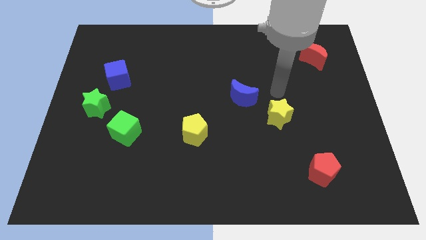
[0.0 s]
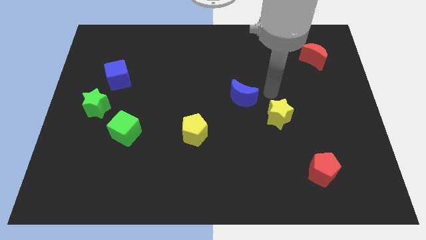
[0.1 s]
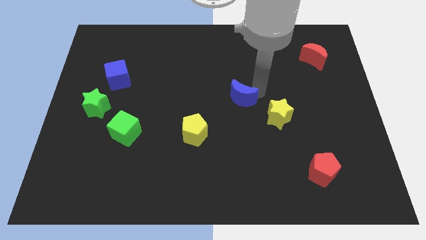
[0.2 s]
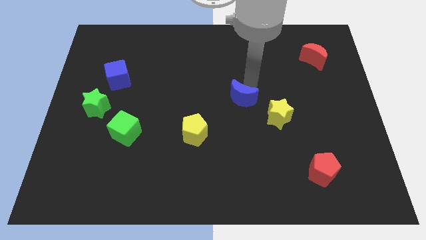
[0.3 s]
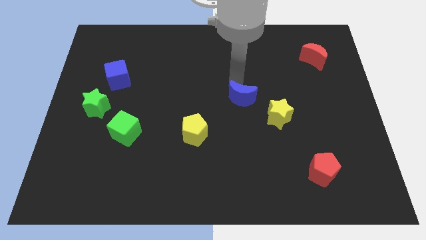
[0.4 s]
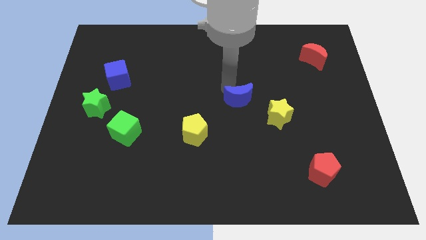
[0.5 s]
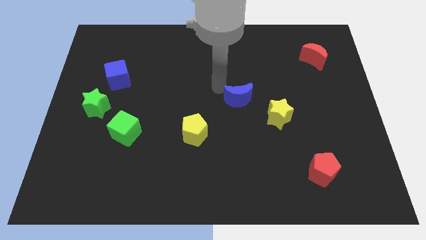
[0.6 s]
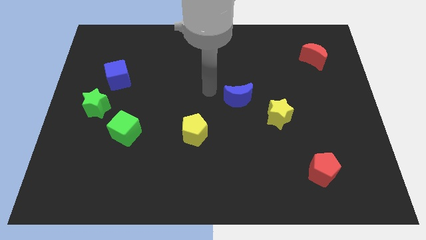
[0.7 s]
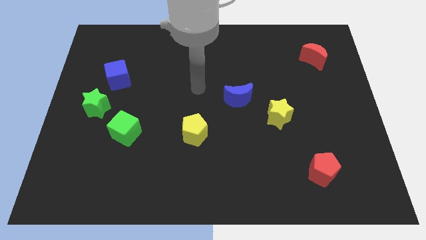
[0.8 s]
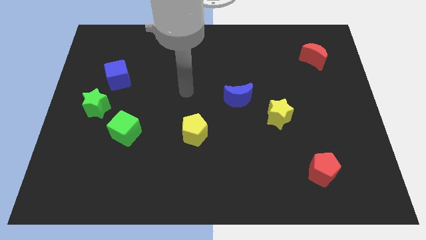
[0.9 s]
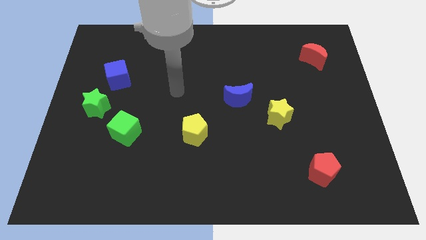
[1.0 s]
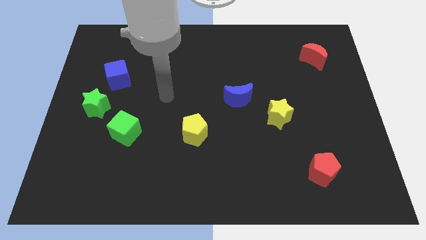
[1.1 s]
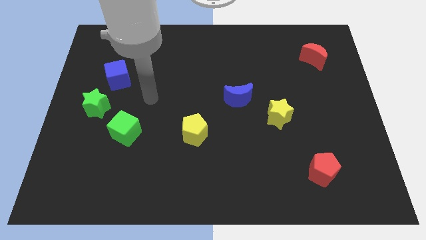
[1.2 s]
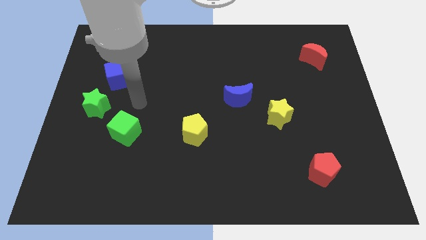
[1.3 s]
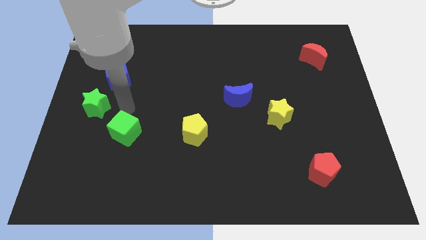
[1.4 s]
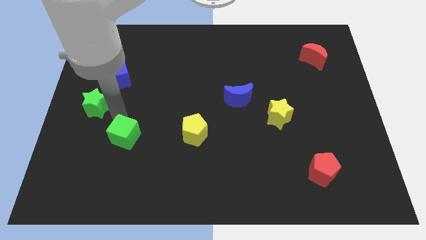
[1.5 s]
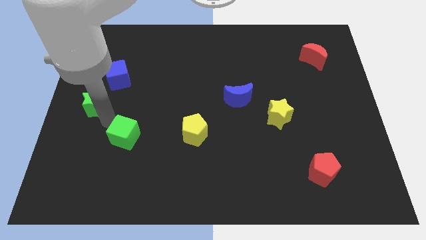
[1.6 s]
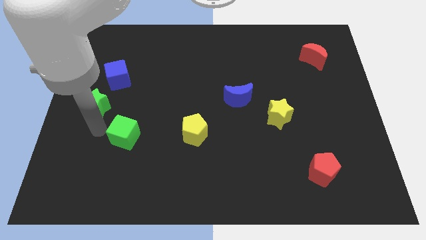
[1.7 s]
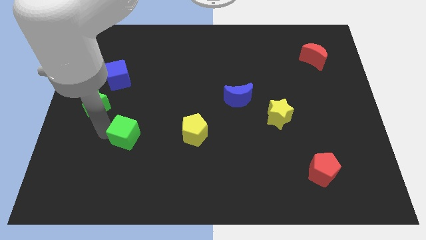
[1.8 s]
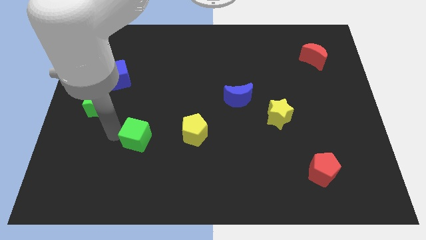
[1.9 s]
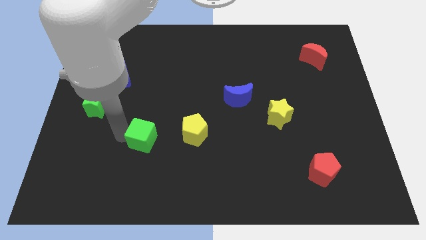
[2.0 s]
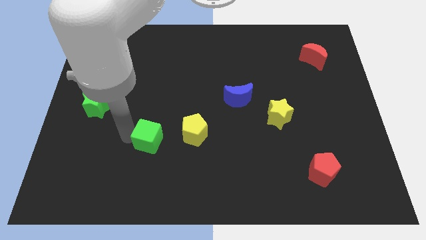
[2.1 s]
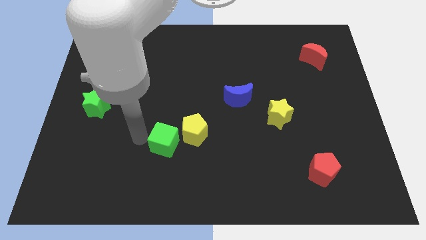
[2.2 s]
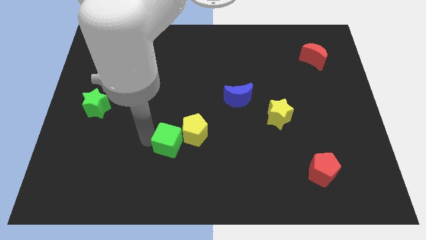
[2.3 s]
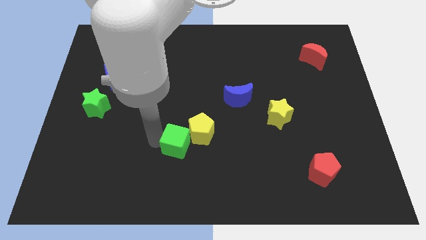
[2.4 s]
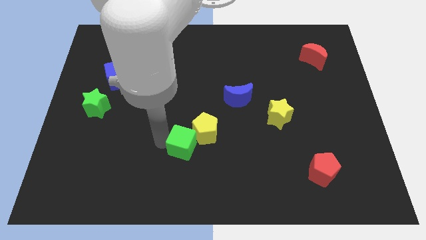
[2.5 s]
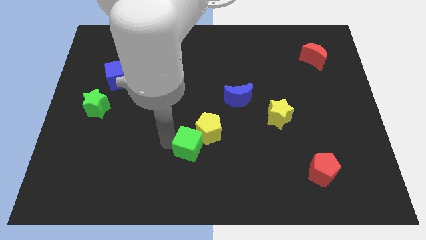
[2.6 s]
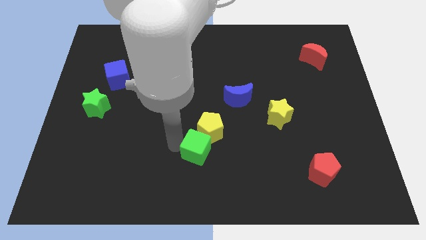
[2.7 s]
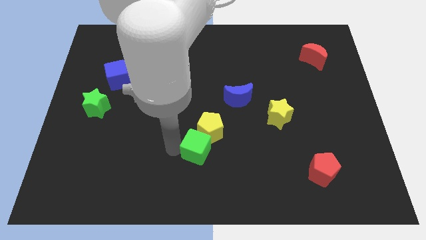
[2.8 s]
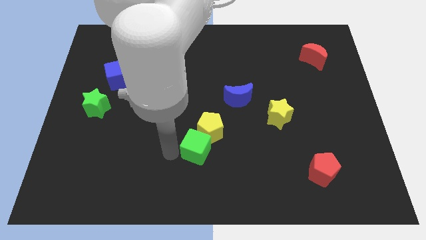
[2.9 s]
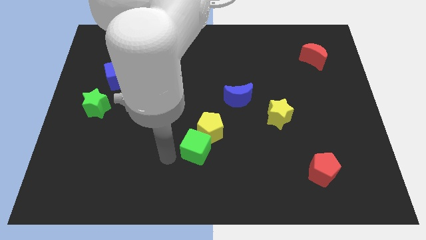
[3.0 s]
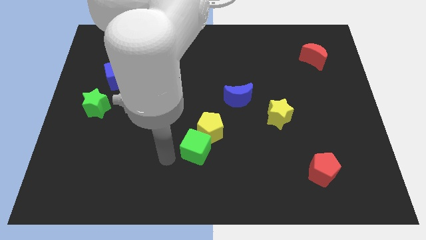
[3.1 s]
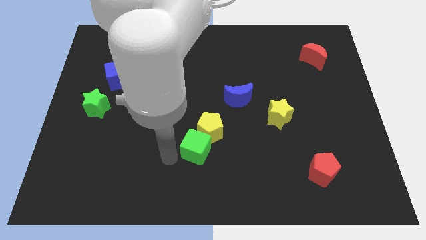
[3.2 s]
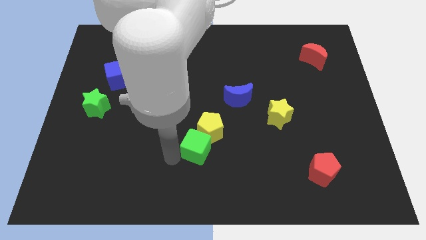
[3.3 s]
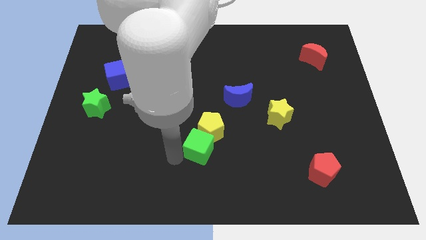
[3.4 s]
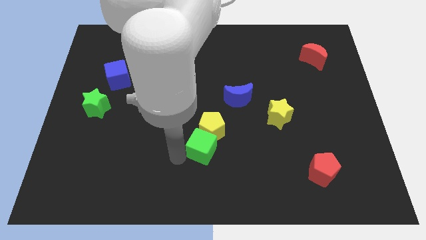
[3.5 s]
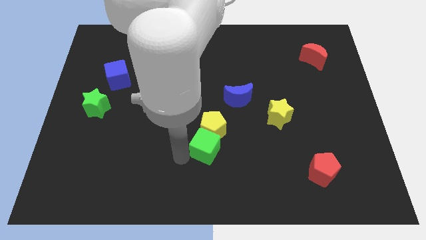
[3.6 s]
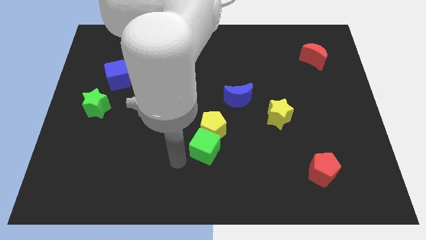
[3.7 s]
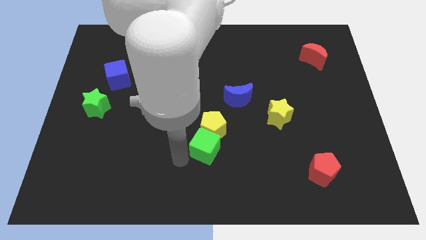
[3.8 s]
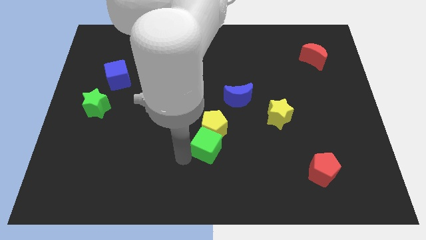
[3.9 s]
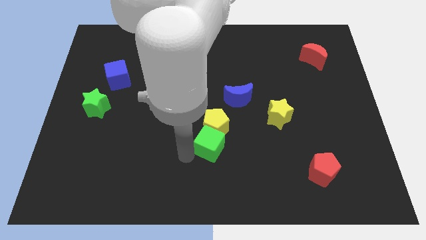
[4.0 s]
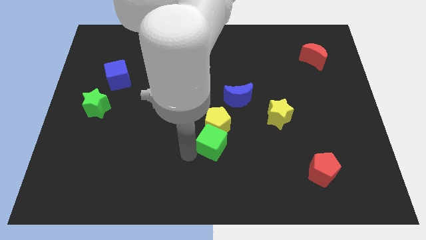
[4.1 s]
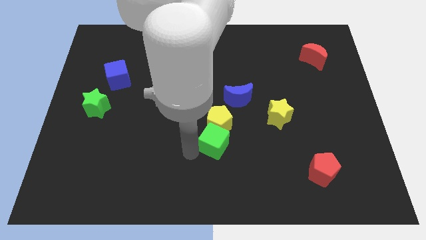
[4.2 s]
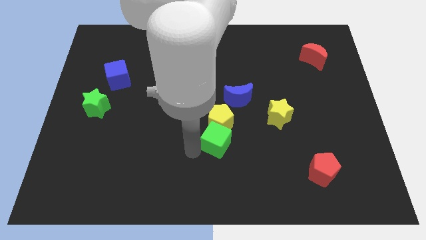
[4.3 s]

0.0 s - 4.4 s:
push the green cube right

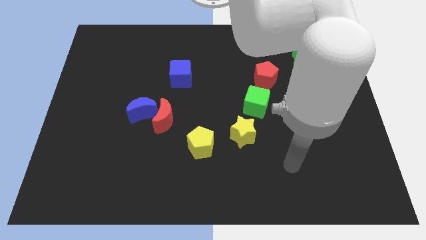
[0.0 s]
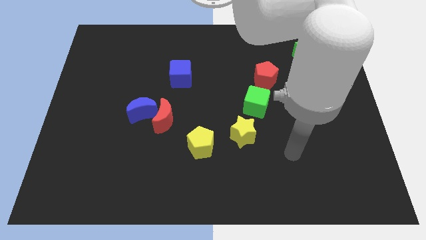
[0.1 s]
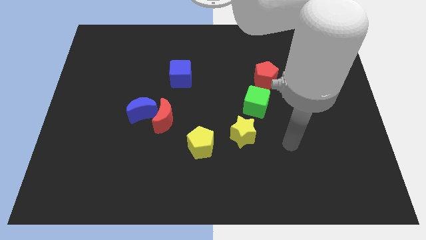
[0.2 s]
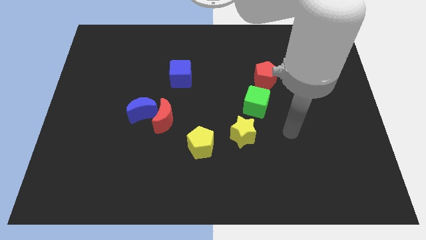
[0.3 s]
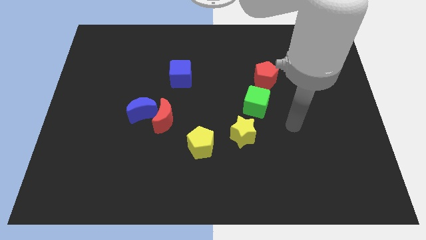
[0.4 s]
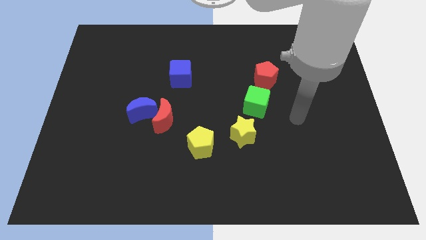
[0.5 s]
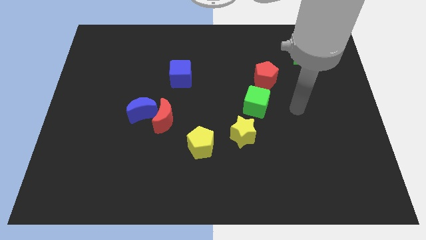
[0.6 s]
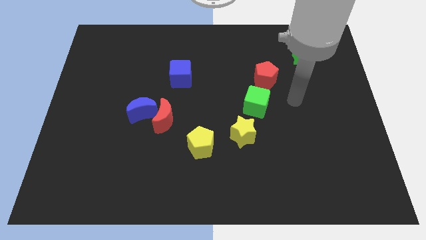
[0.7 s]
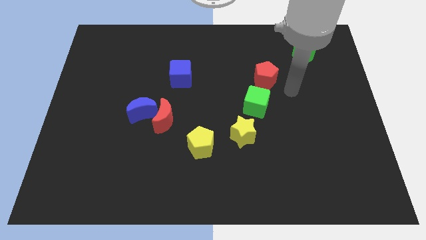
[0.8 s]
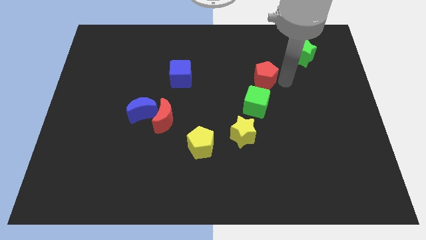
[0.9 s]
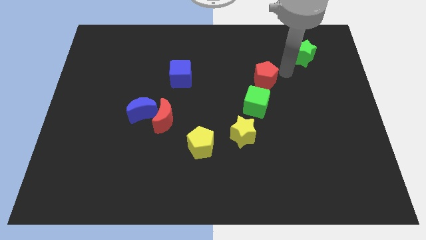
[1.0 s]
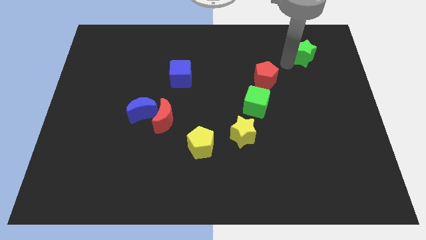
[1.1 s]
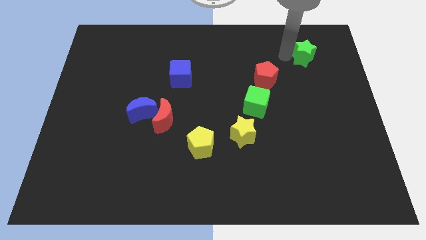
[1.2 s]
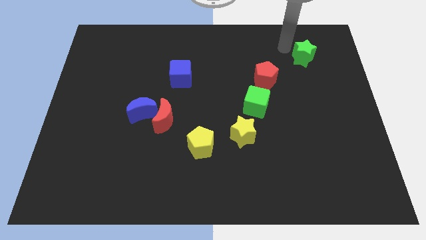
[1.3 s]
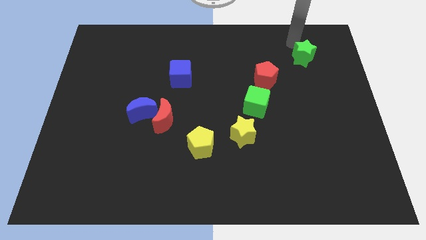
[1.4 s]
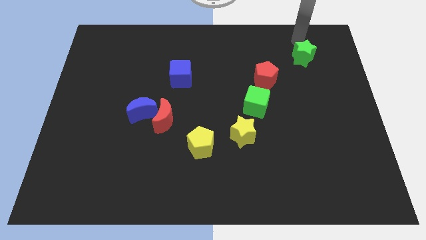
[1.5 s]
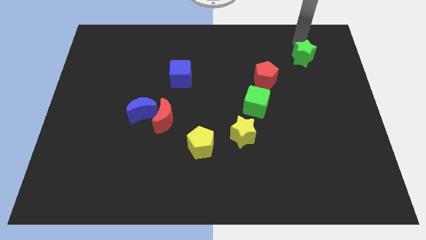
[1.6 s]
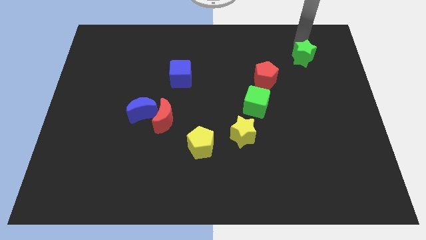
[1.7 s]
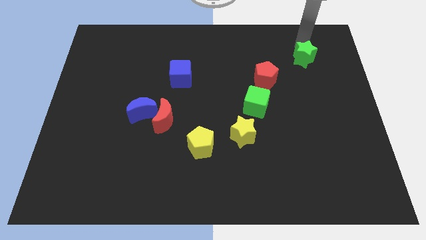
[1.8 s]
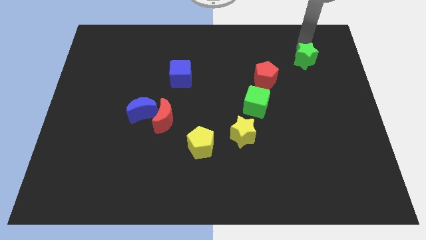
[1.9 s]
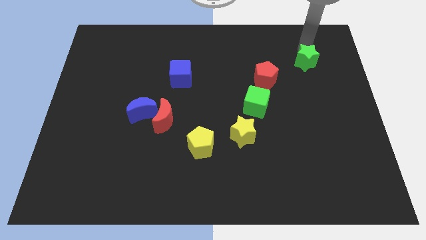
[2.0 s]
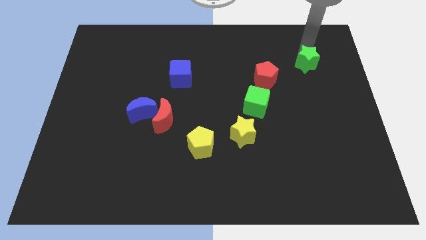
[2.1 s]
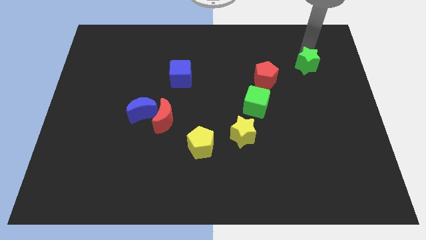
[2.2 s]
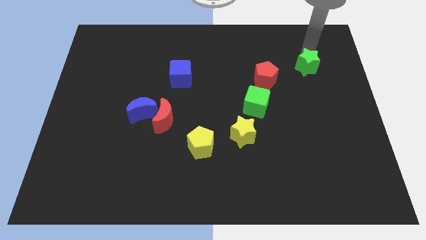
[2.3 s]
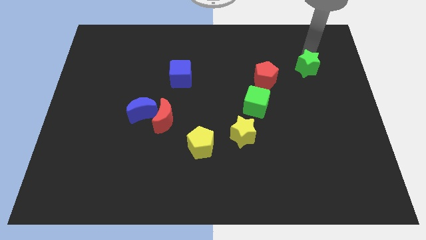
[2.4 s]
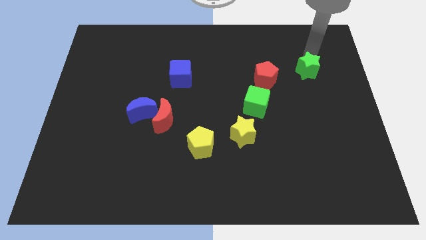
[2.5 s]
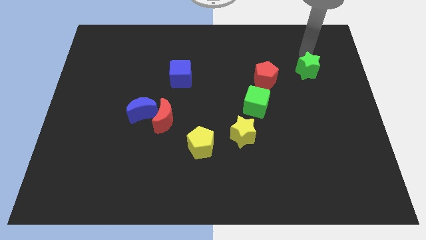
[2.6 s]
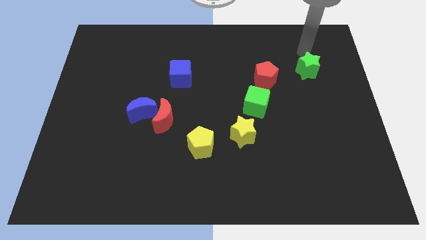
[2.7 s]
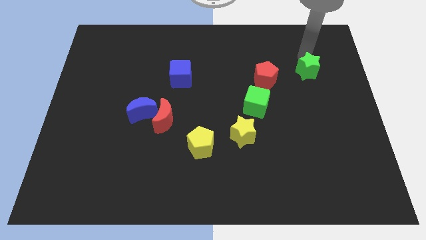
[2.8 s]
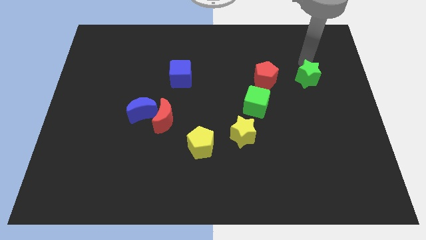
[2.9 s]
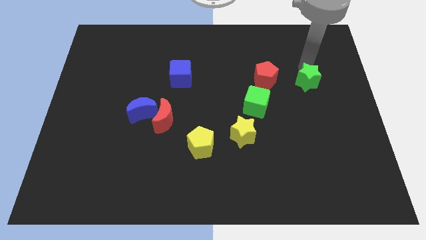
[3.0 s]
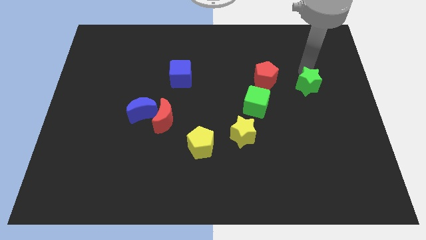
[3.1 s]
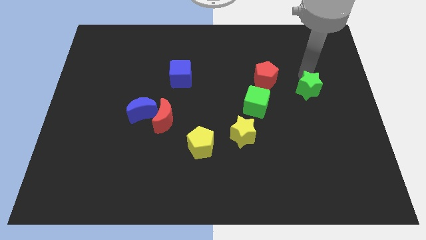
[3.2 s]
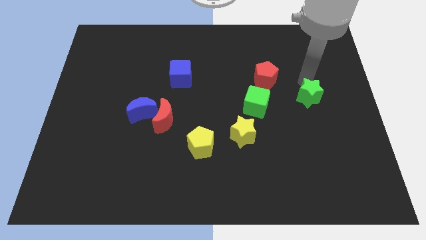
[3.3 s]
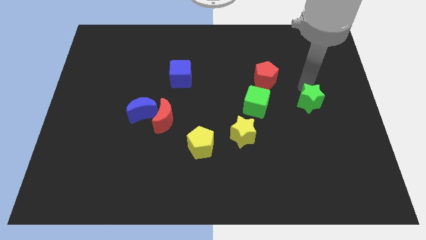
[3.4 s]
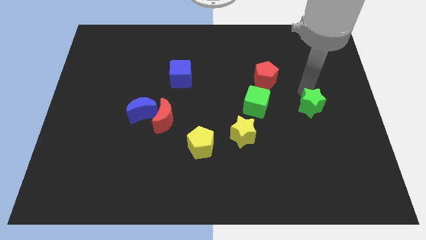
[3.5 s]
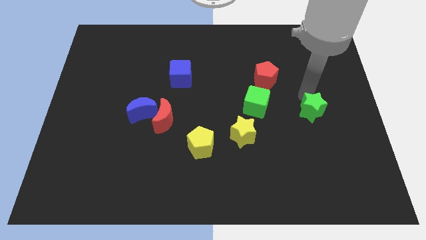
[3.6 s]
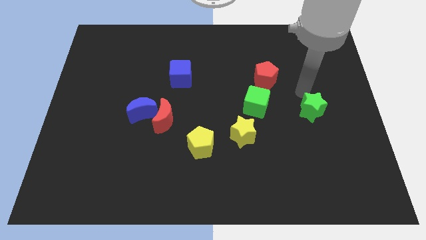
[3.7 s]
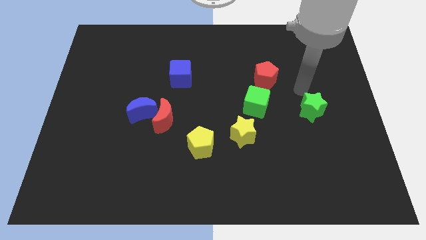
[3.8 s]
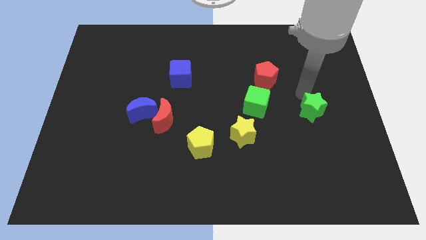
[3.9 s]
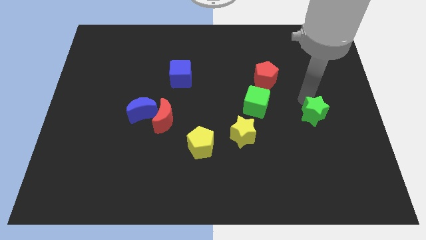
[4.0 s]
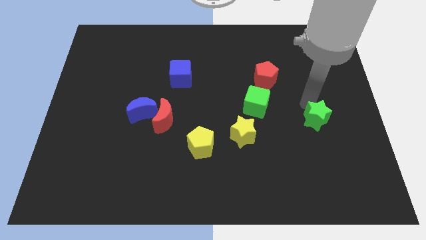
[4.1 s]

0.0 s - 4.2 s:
slide the green star down
